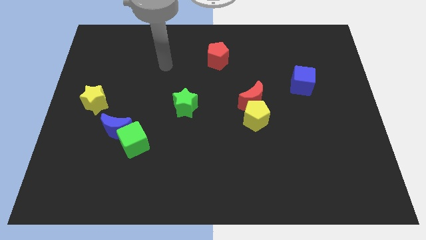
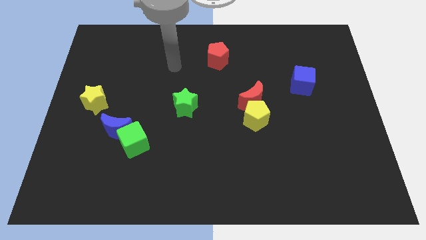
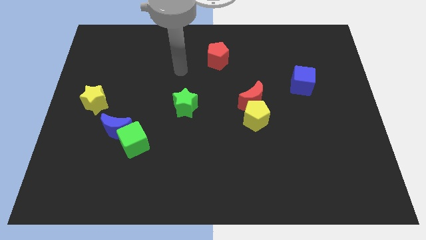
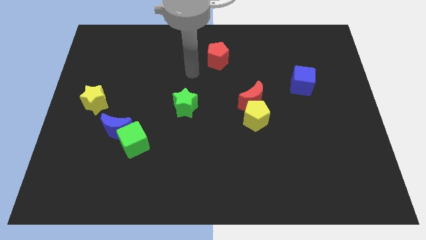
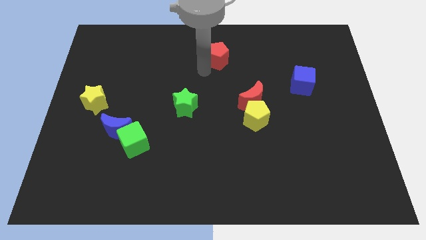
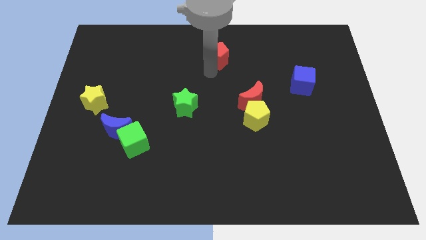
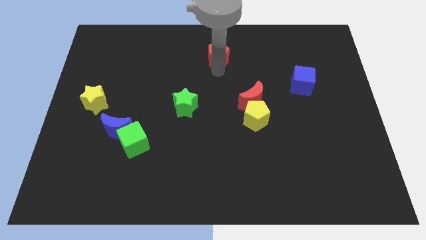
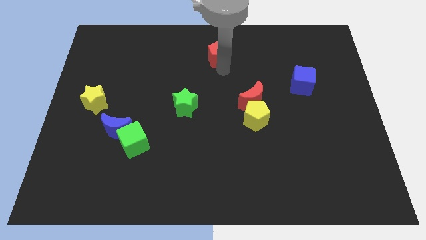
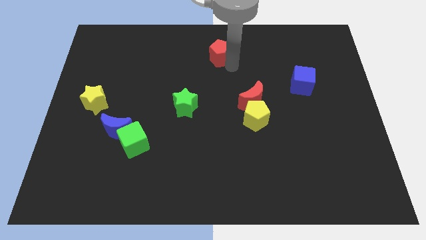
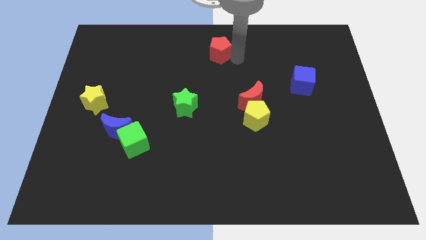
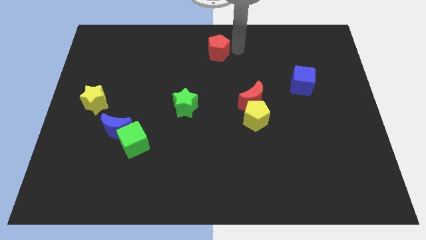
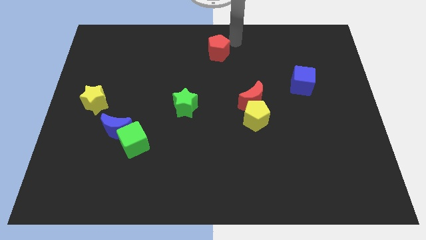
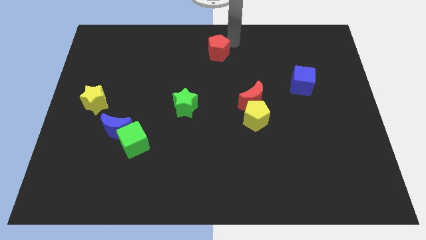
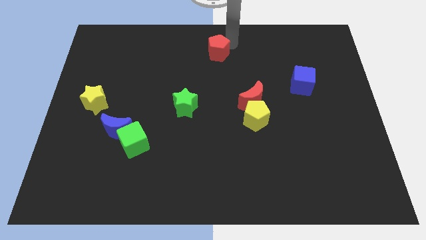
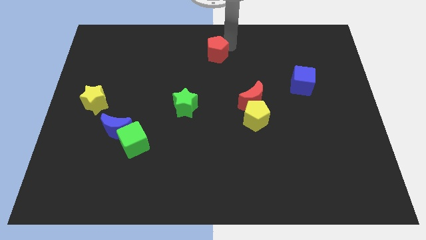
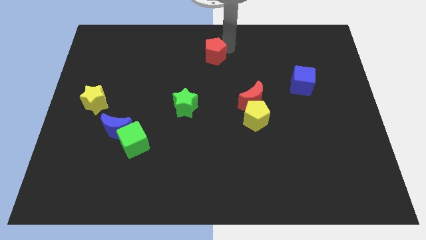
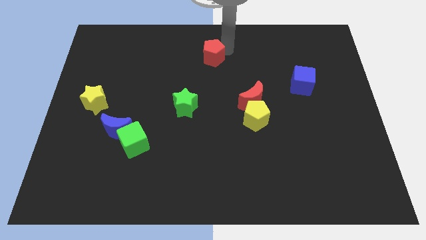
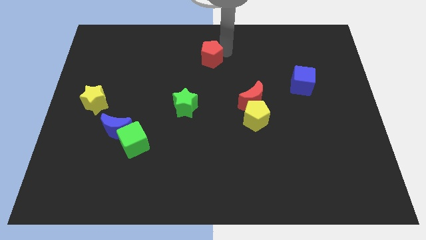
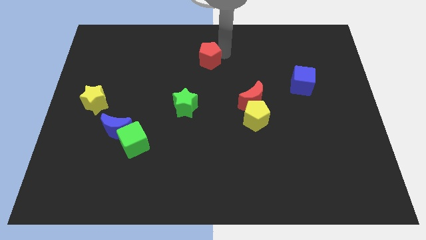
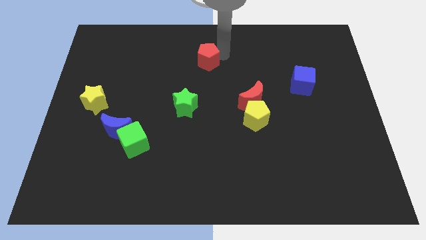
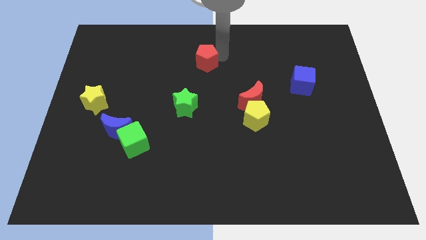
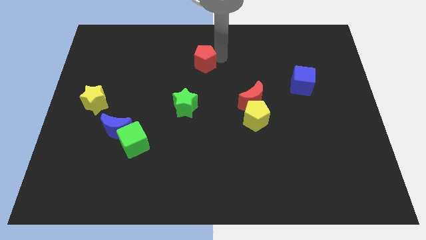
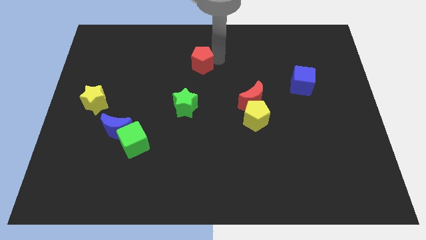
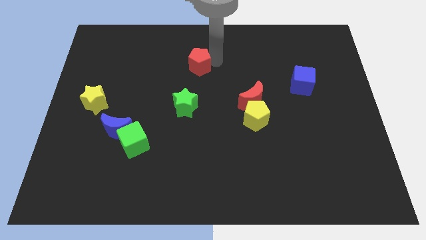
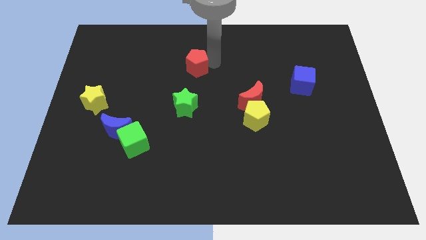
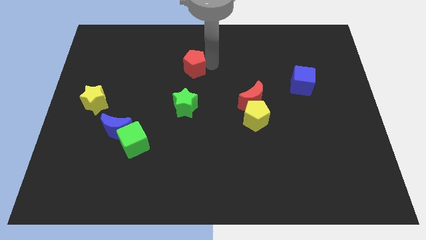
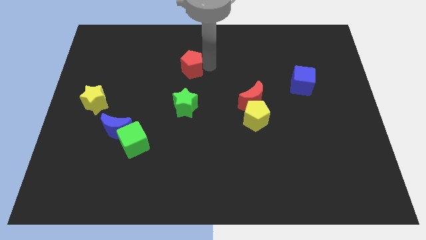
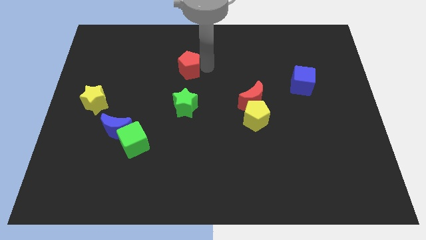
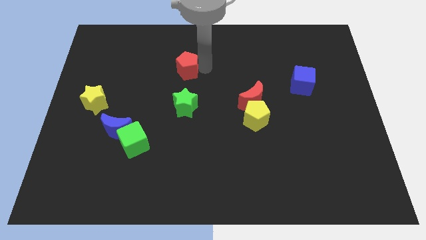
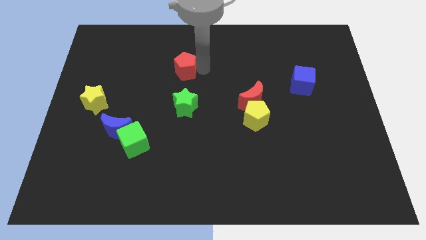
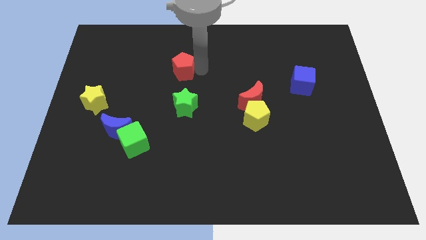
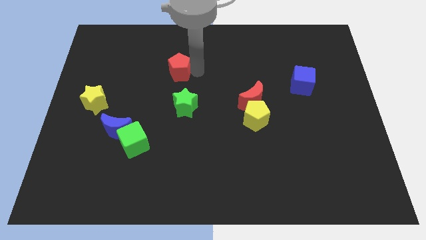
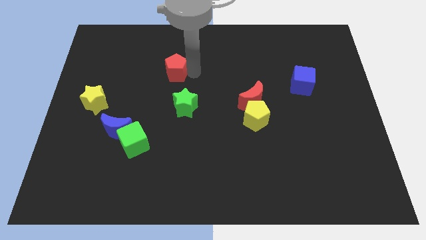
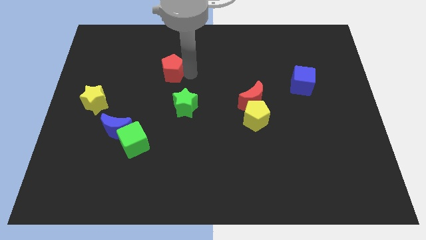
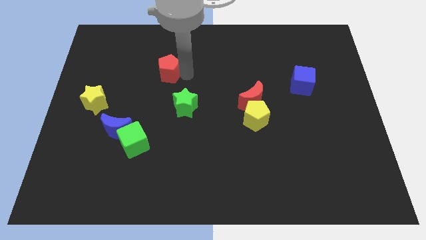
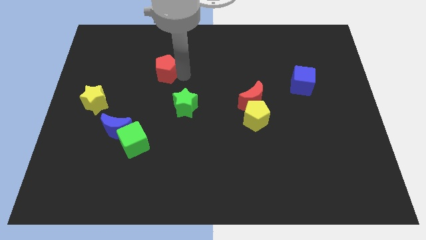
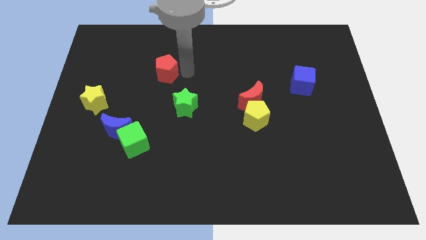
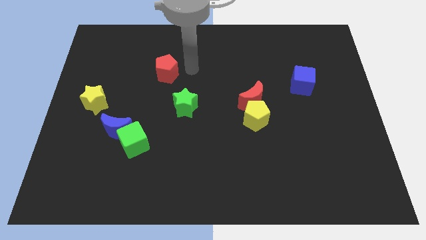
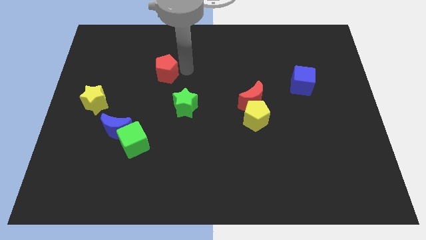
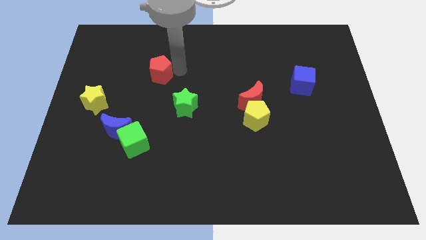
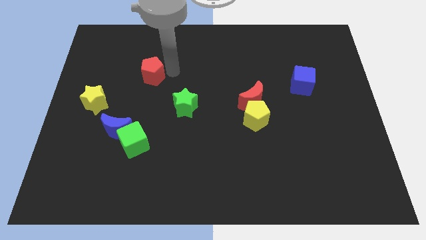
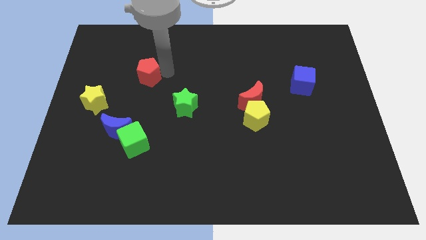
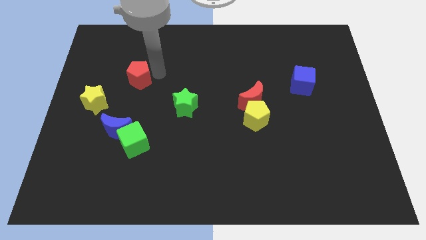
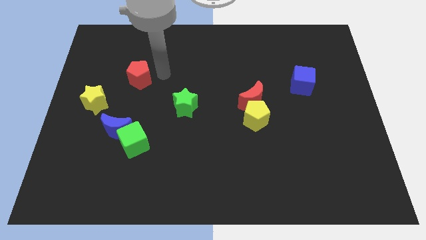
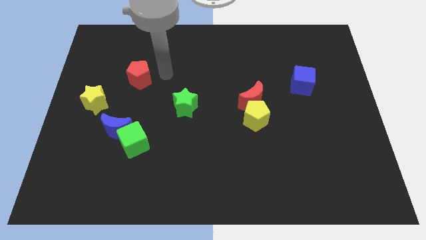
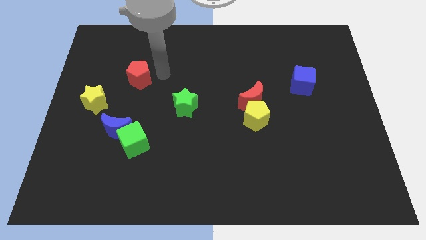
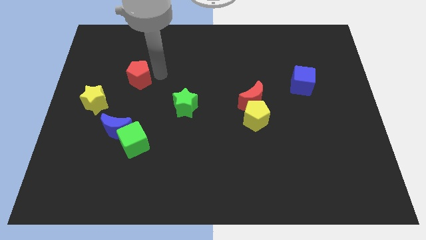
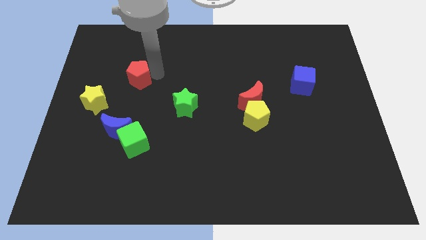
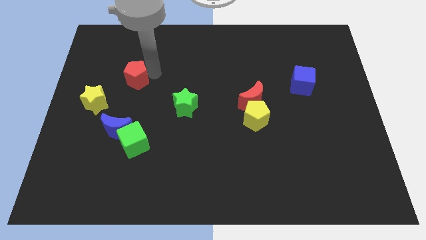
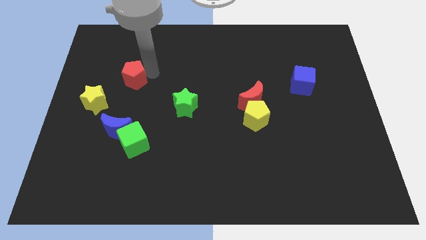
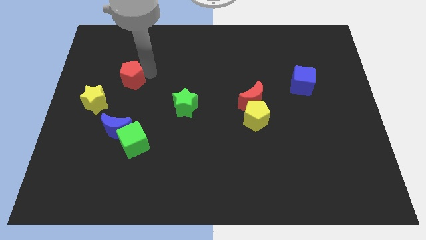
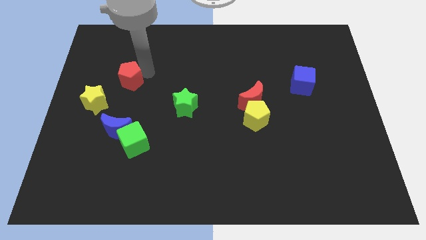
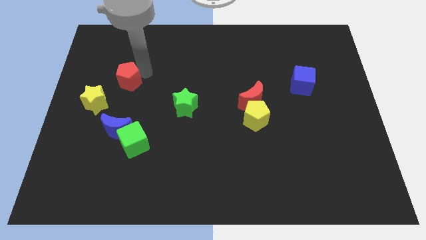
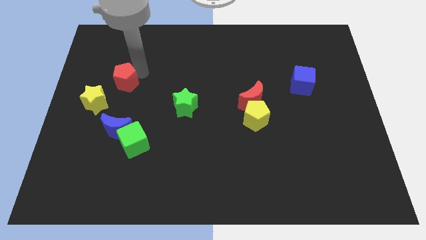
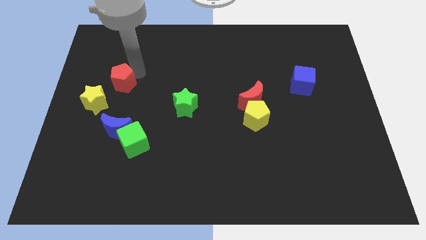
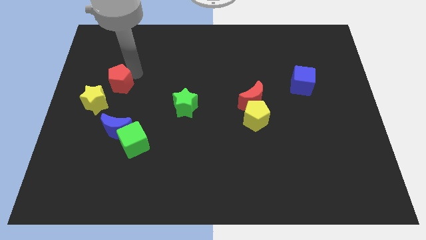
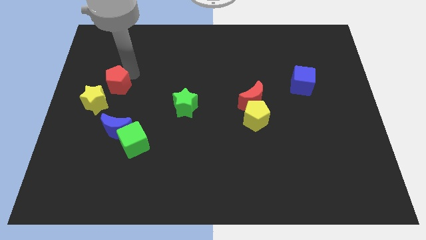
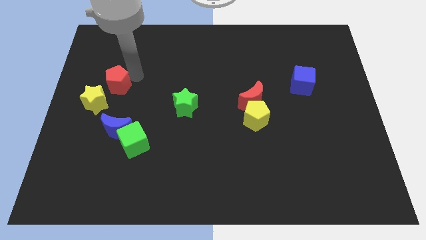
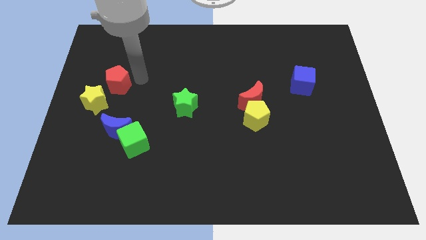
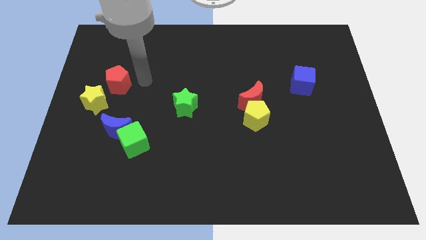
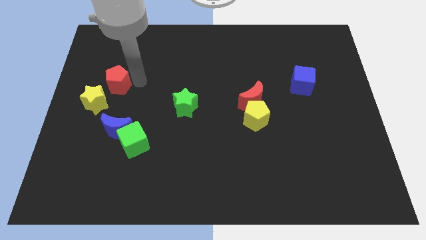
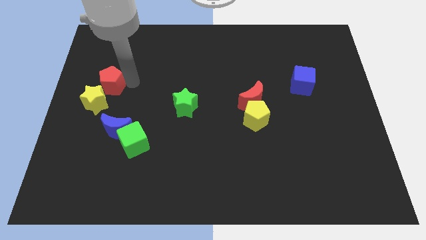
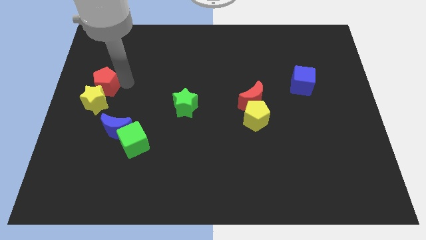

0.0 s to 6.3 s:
move the red pentagon to the center left
